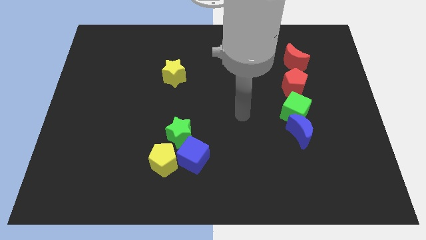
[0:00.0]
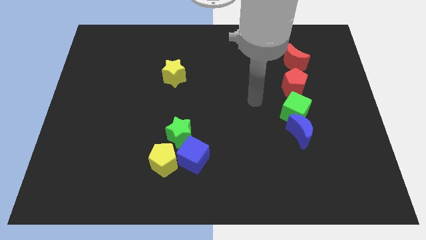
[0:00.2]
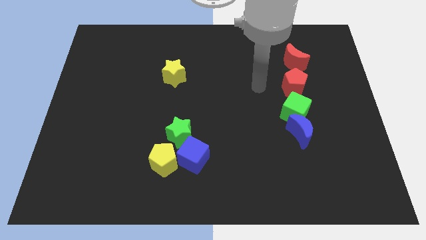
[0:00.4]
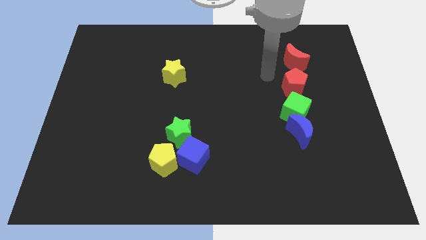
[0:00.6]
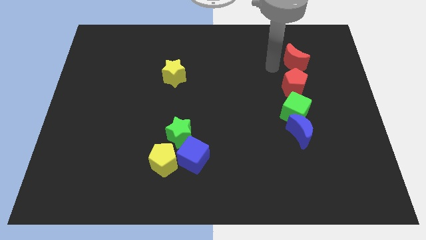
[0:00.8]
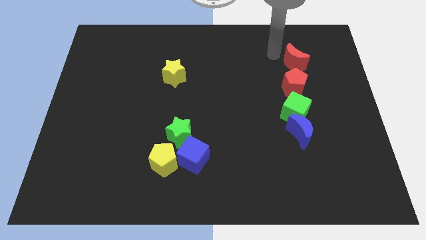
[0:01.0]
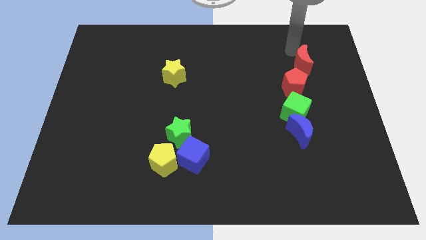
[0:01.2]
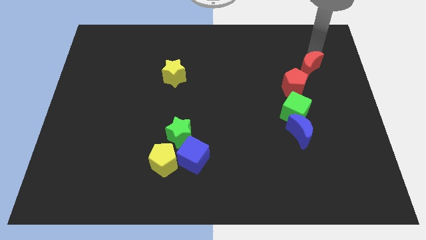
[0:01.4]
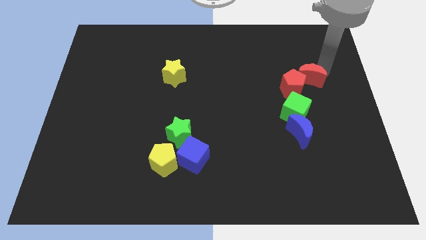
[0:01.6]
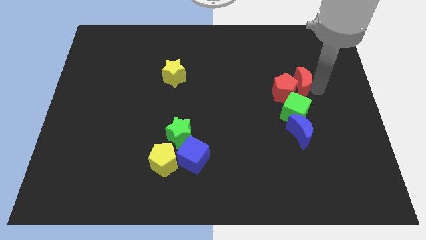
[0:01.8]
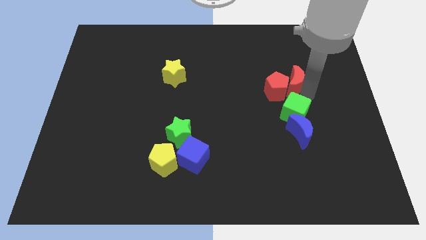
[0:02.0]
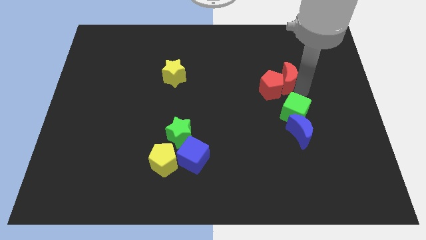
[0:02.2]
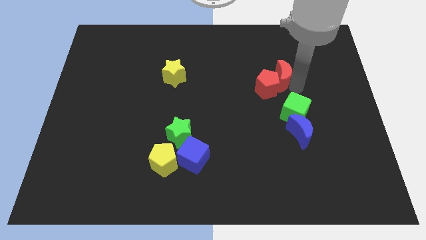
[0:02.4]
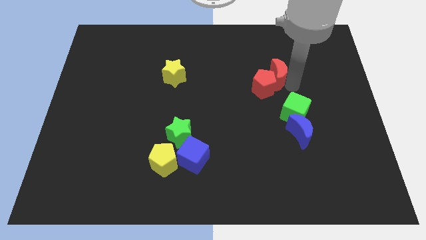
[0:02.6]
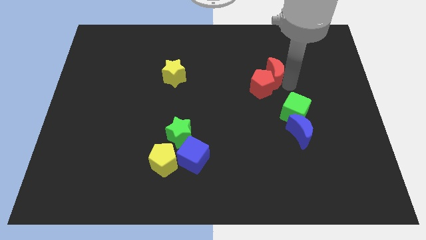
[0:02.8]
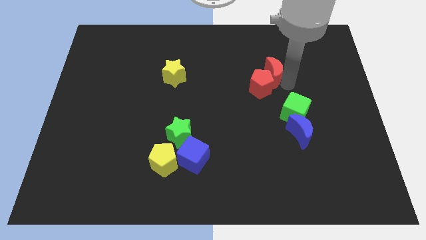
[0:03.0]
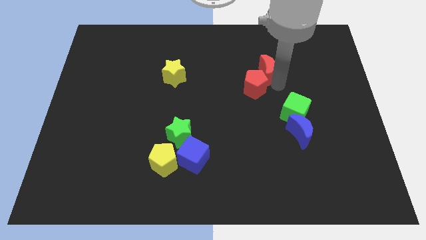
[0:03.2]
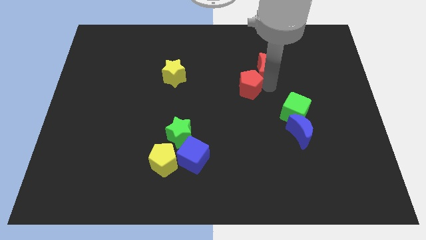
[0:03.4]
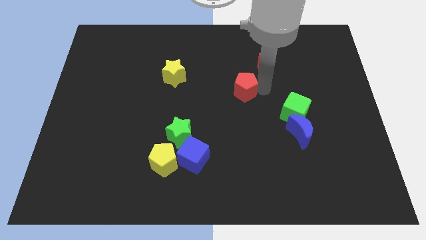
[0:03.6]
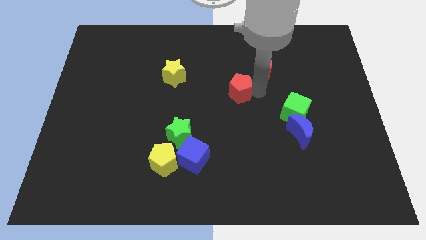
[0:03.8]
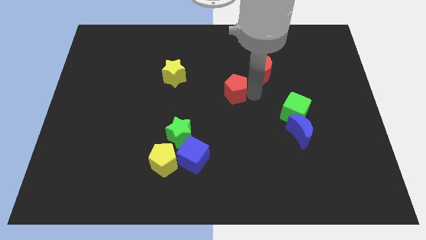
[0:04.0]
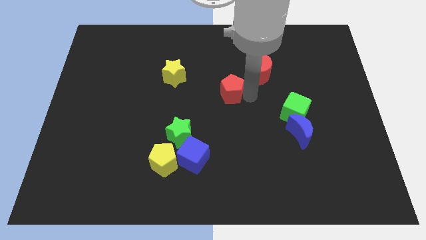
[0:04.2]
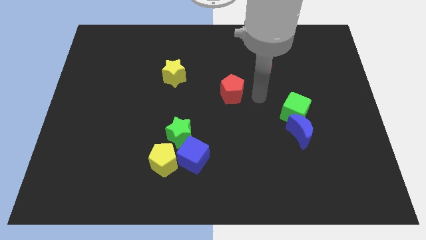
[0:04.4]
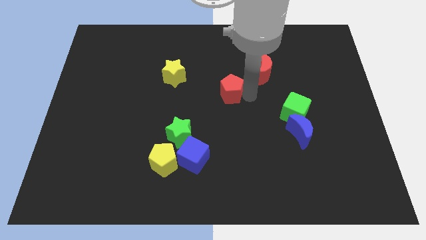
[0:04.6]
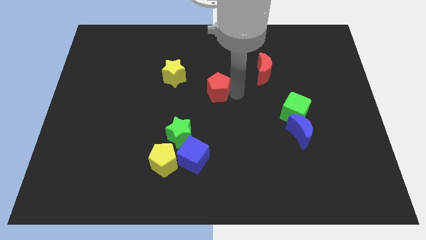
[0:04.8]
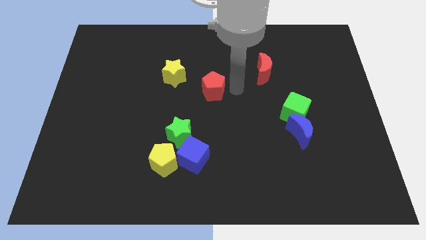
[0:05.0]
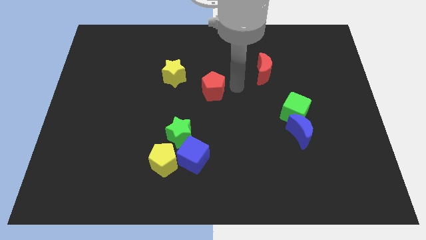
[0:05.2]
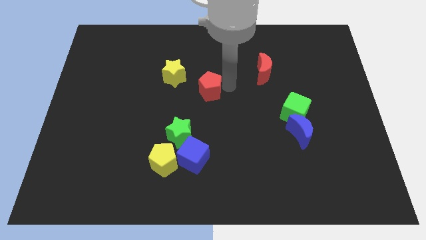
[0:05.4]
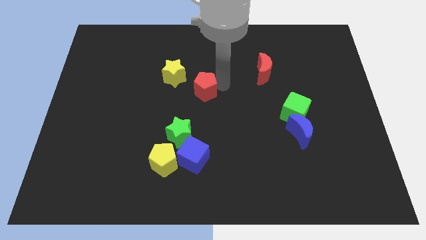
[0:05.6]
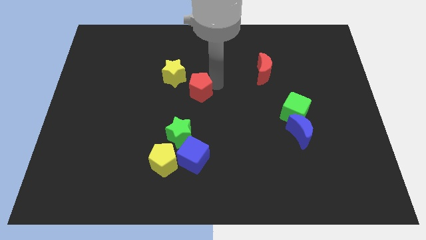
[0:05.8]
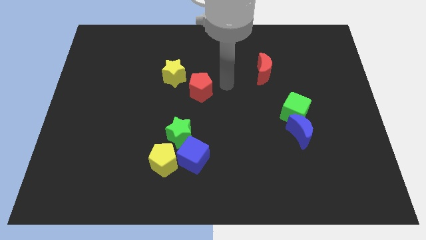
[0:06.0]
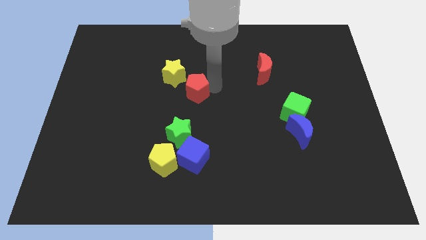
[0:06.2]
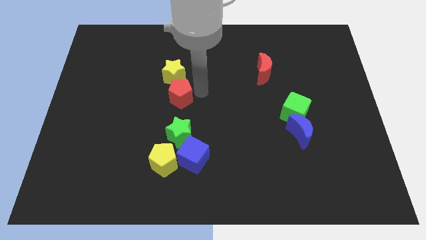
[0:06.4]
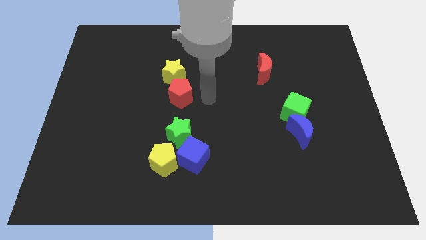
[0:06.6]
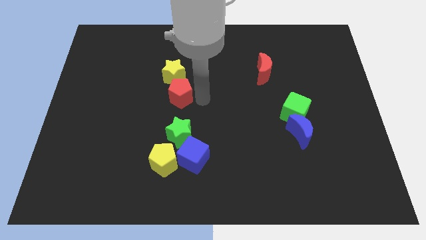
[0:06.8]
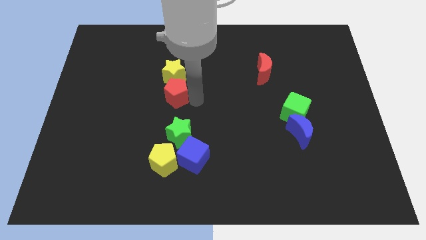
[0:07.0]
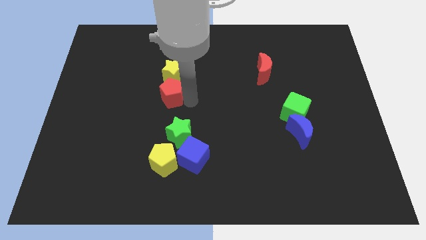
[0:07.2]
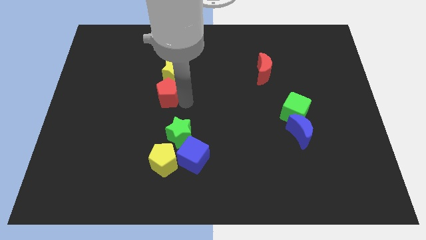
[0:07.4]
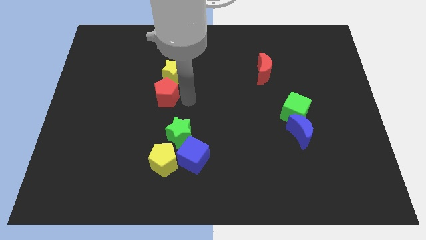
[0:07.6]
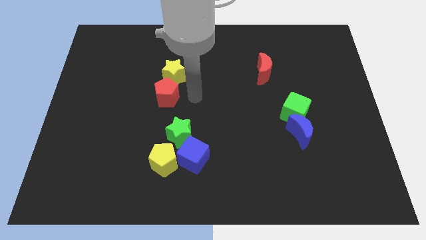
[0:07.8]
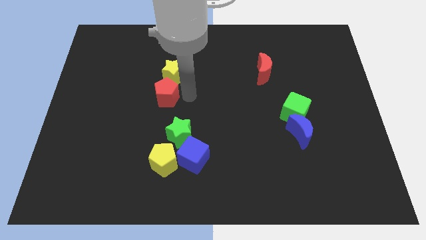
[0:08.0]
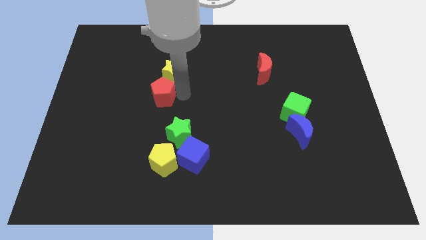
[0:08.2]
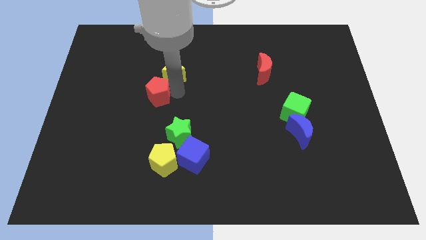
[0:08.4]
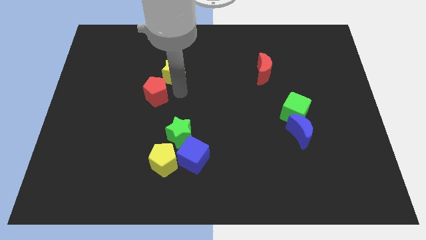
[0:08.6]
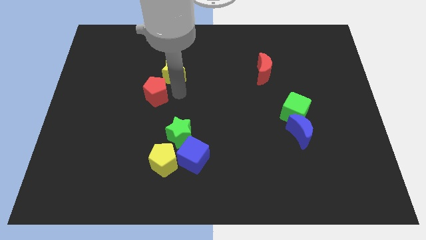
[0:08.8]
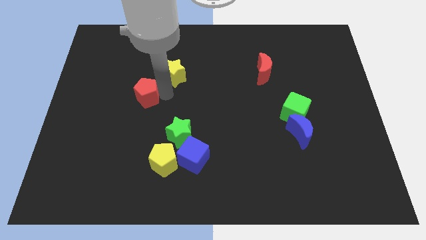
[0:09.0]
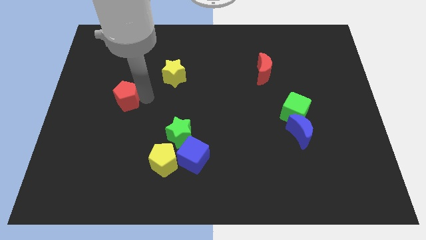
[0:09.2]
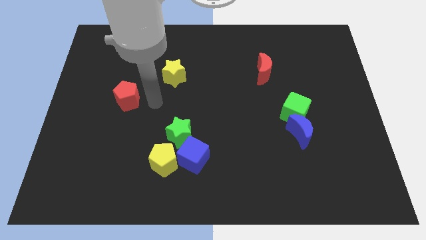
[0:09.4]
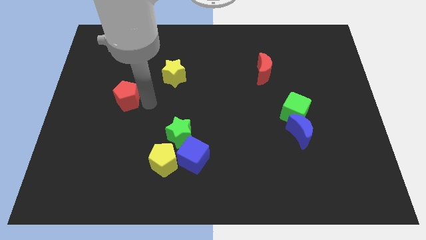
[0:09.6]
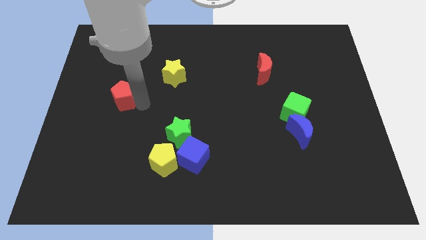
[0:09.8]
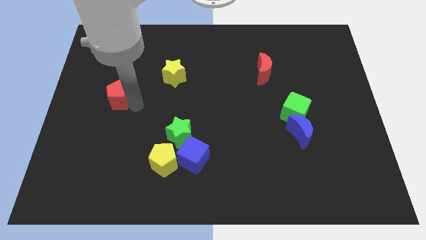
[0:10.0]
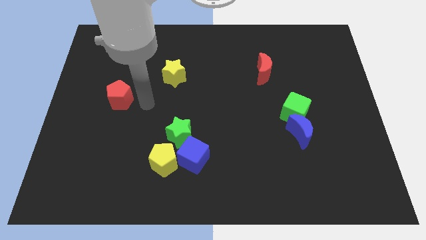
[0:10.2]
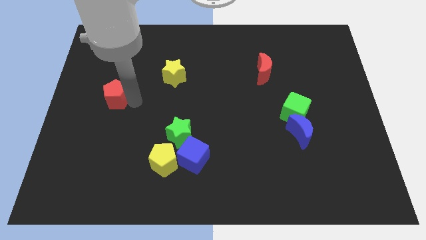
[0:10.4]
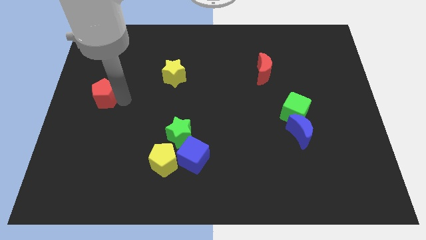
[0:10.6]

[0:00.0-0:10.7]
move the red pentagon to the center left
